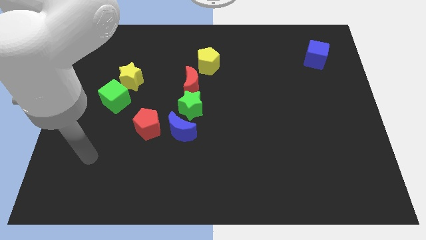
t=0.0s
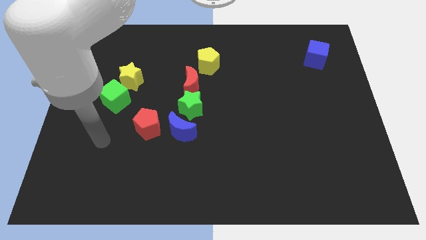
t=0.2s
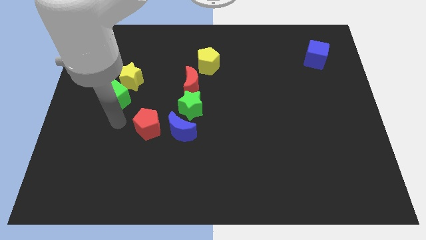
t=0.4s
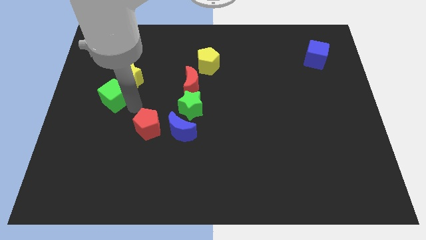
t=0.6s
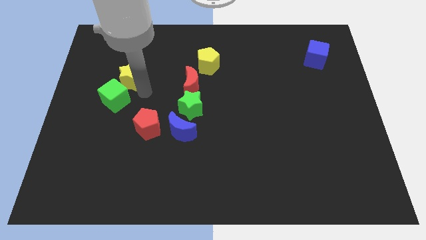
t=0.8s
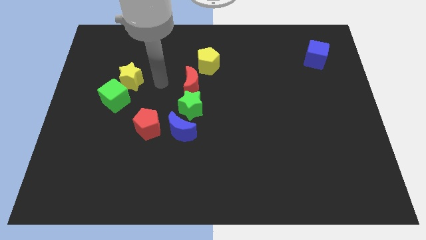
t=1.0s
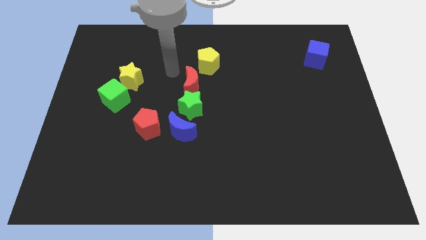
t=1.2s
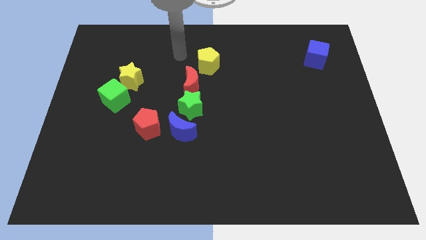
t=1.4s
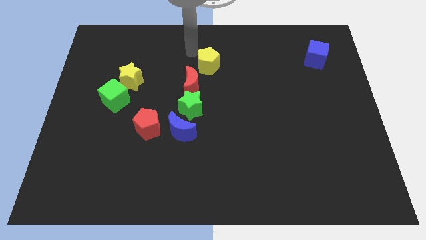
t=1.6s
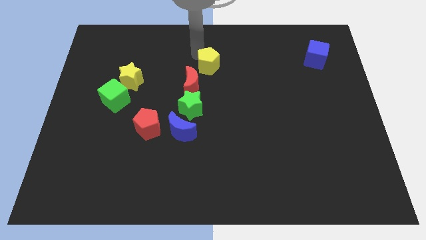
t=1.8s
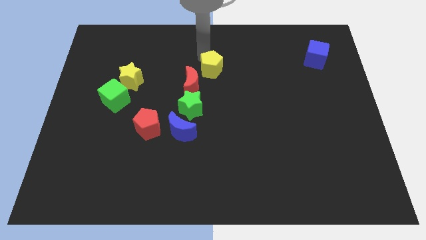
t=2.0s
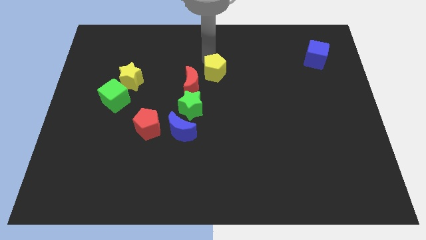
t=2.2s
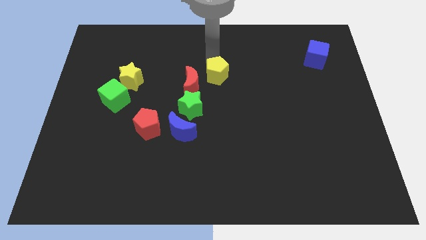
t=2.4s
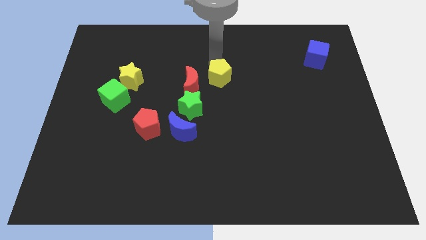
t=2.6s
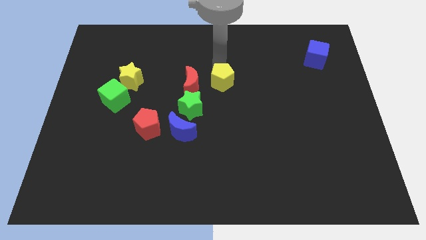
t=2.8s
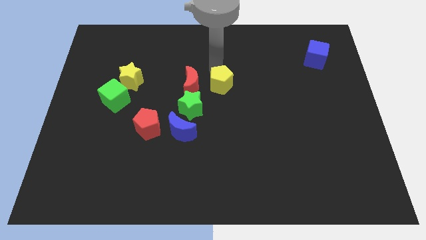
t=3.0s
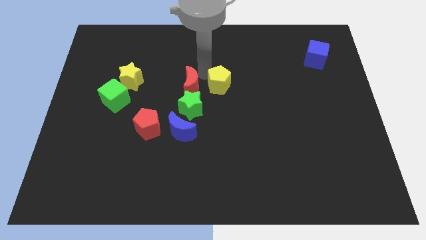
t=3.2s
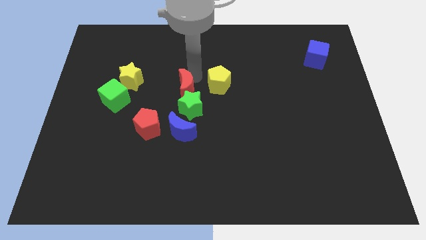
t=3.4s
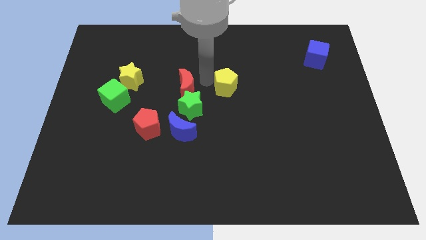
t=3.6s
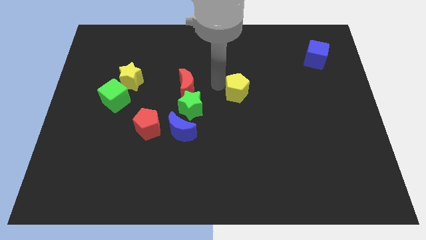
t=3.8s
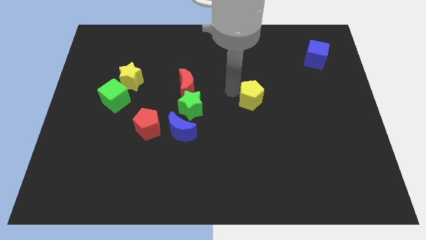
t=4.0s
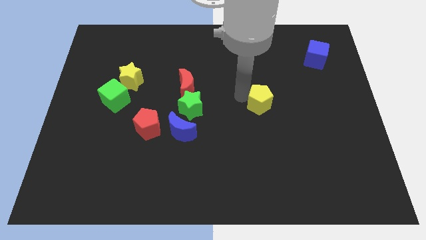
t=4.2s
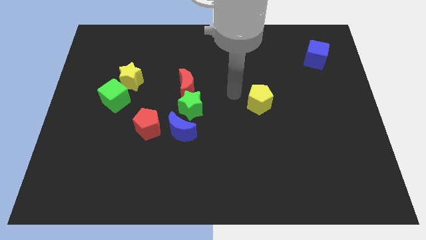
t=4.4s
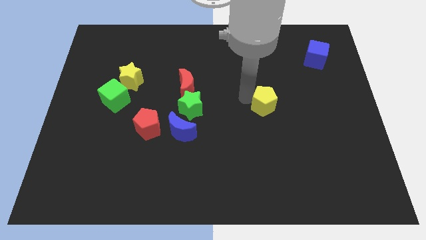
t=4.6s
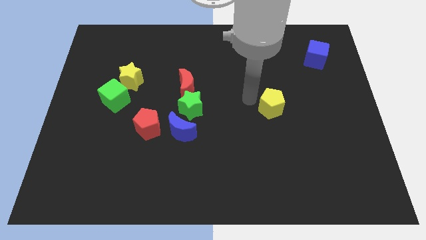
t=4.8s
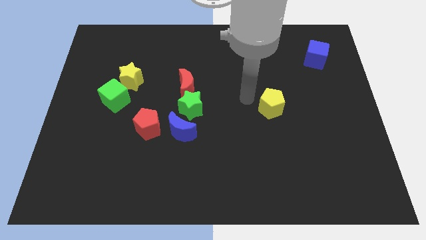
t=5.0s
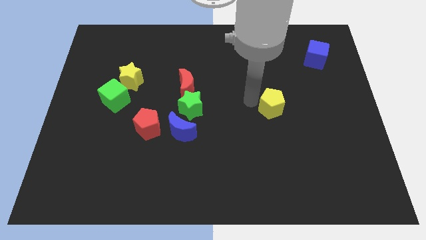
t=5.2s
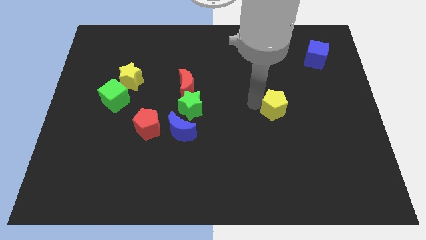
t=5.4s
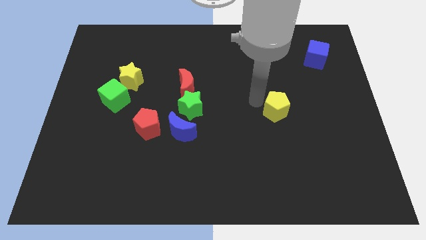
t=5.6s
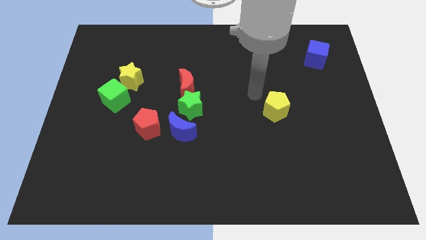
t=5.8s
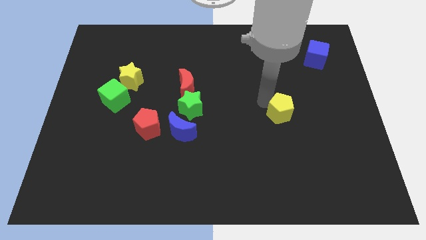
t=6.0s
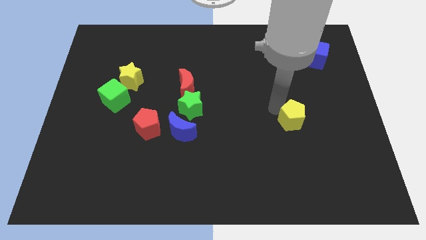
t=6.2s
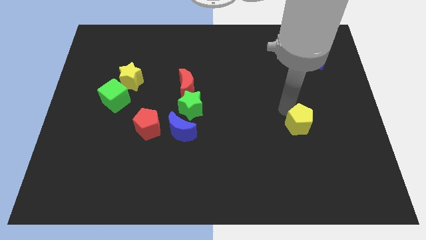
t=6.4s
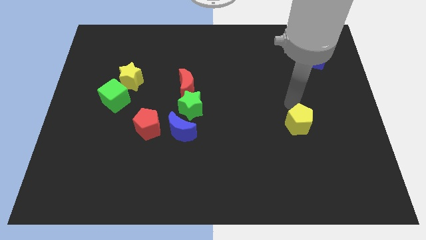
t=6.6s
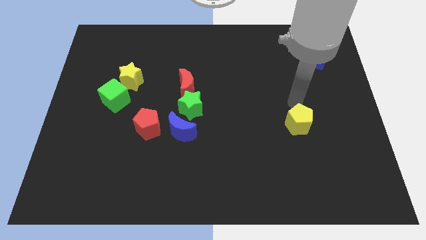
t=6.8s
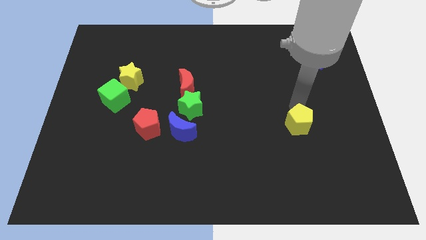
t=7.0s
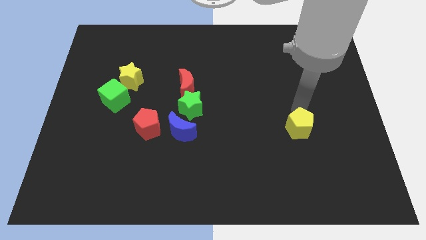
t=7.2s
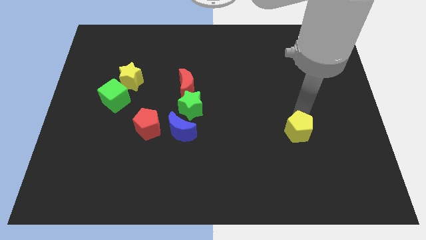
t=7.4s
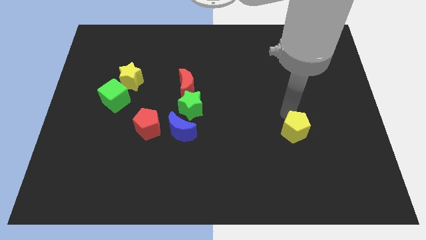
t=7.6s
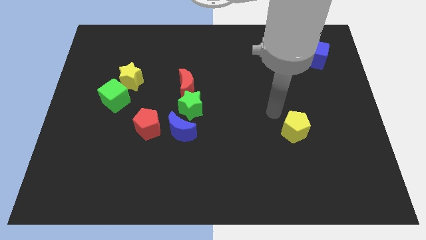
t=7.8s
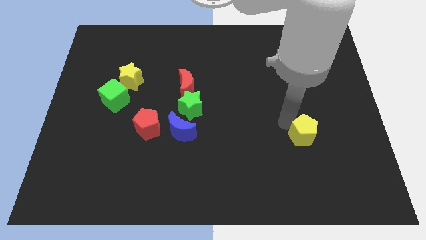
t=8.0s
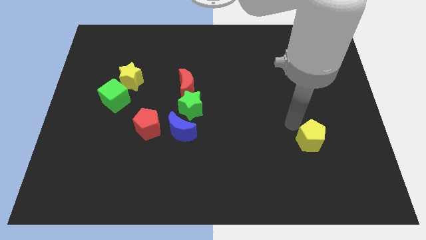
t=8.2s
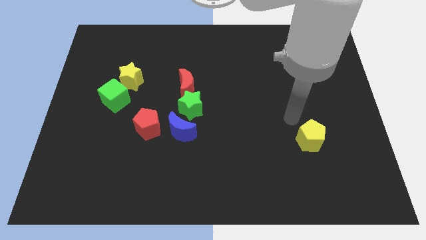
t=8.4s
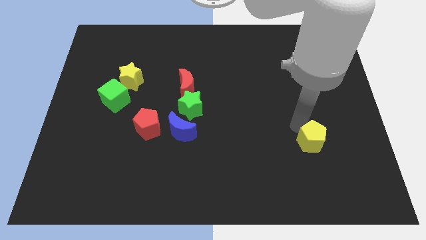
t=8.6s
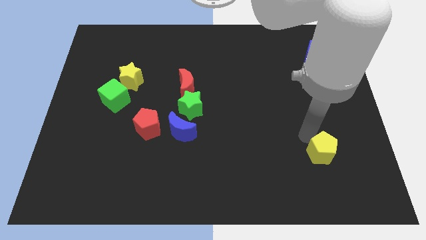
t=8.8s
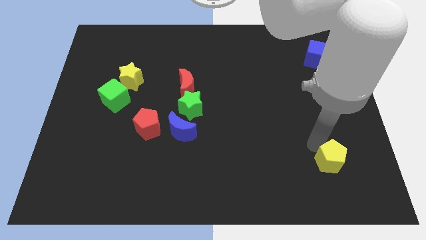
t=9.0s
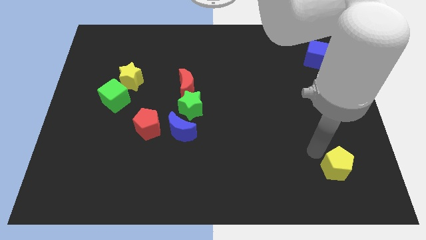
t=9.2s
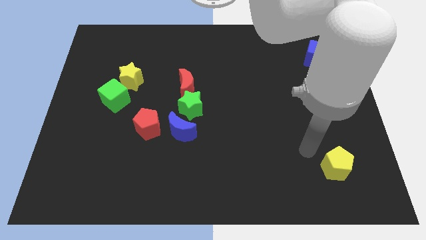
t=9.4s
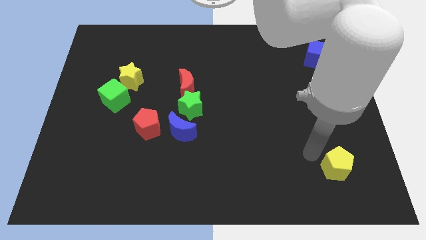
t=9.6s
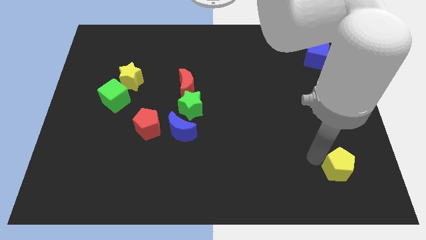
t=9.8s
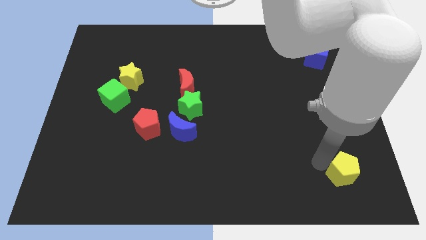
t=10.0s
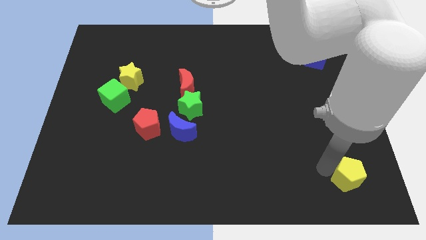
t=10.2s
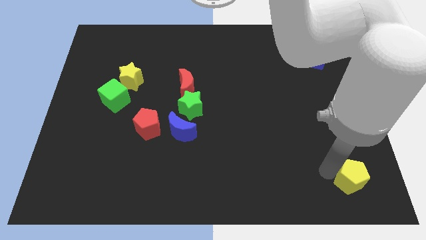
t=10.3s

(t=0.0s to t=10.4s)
slide the yellow pentagon to the bottom right of the board
